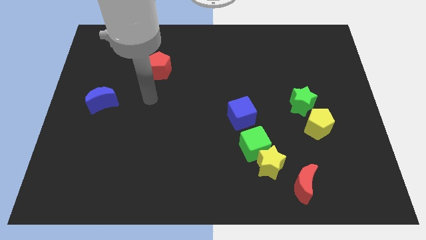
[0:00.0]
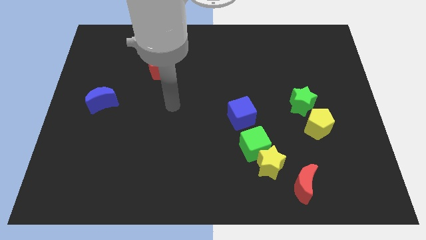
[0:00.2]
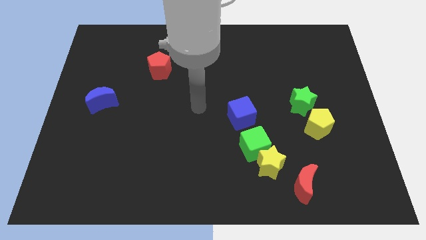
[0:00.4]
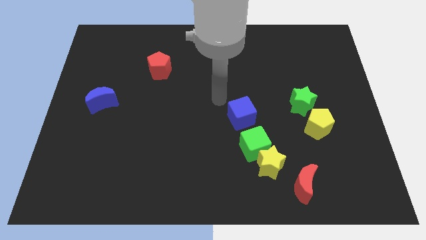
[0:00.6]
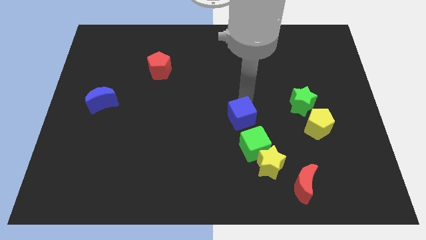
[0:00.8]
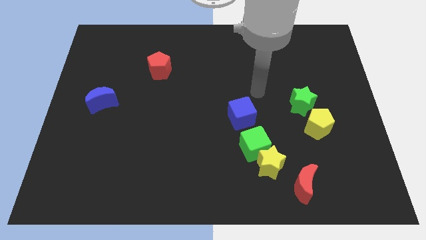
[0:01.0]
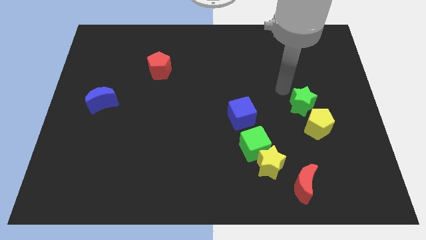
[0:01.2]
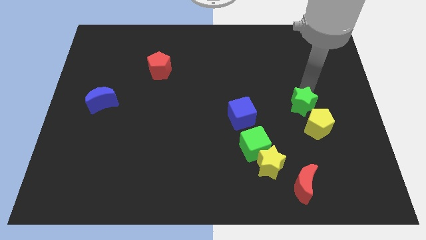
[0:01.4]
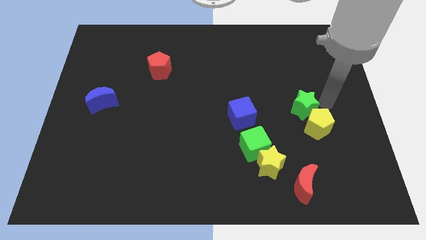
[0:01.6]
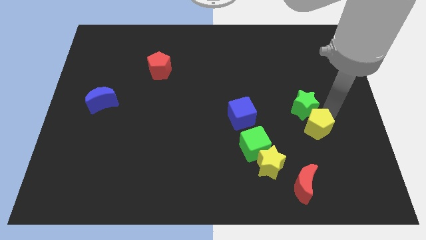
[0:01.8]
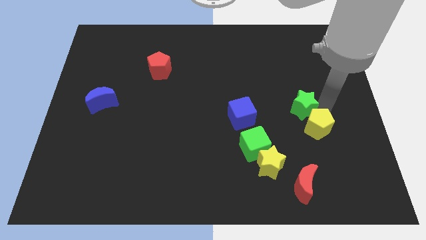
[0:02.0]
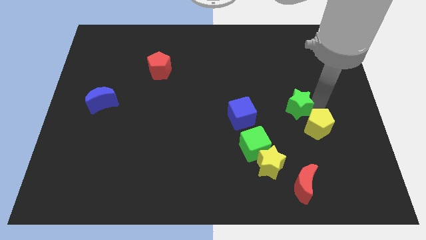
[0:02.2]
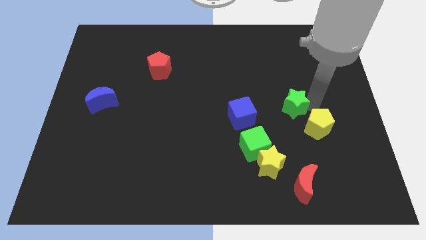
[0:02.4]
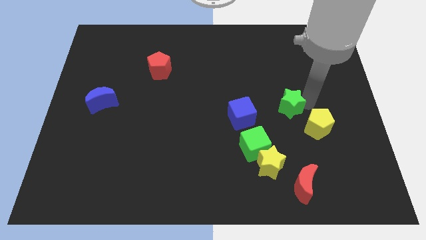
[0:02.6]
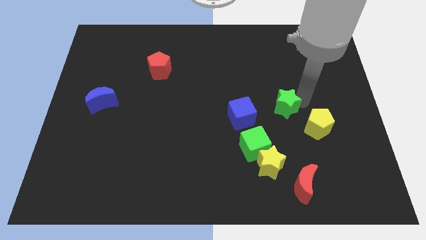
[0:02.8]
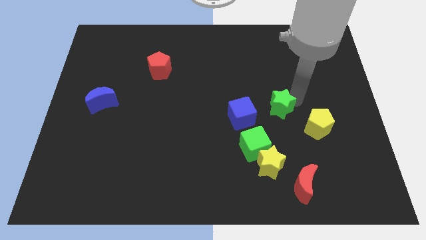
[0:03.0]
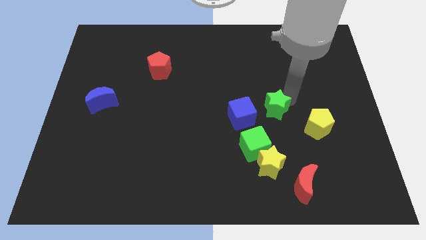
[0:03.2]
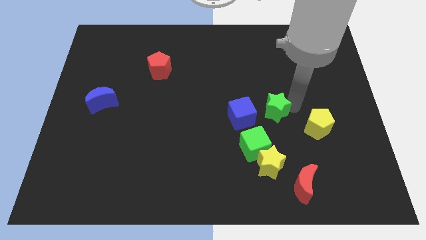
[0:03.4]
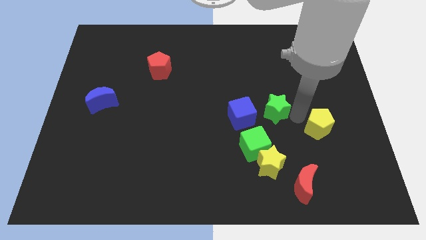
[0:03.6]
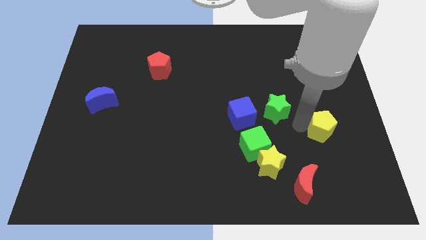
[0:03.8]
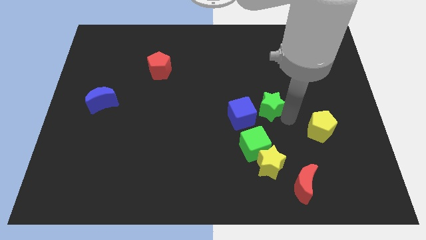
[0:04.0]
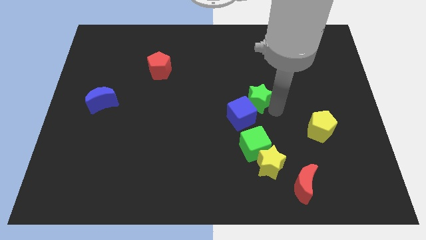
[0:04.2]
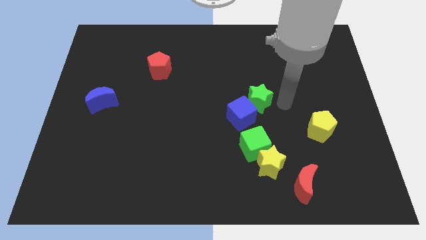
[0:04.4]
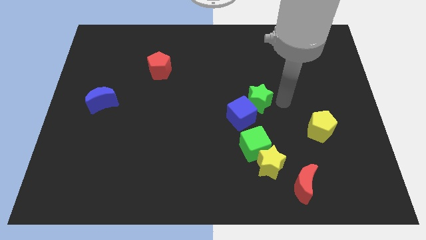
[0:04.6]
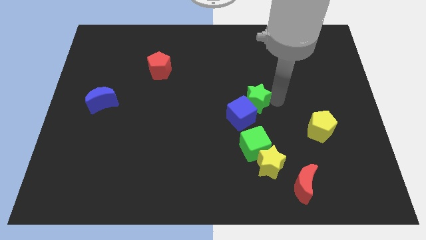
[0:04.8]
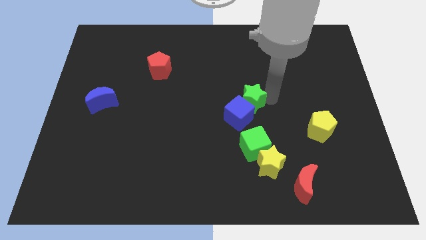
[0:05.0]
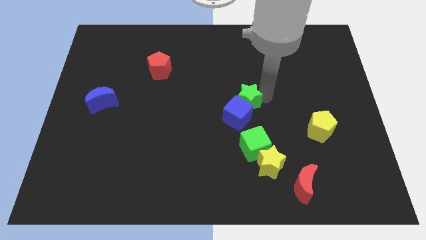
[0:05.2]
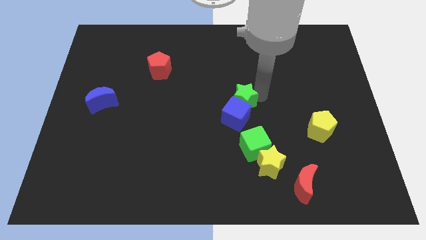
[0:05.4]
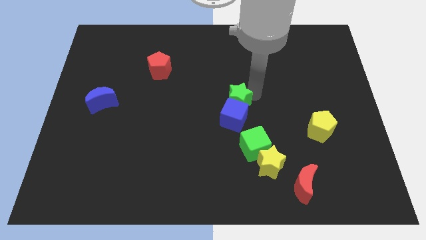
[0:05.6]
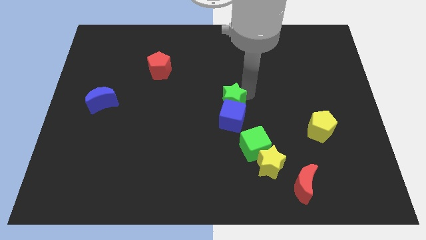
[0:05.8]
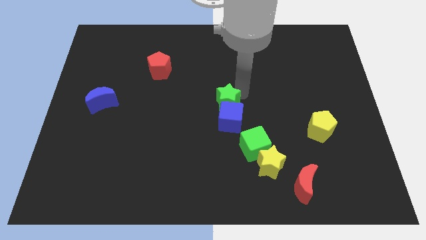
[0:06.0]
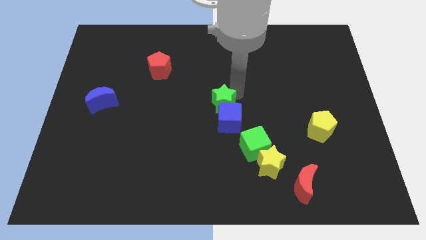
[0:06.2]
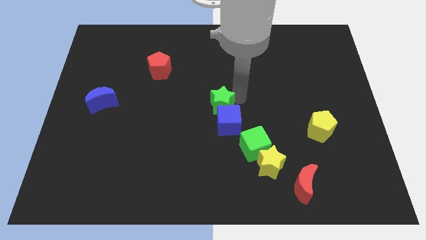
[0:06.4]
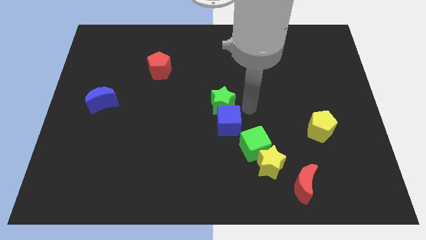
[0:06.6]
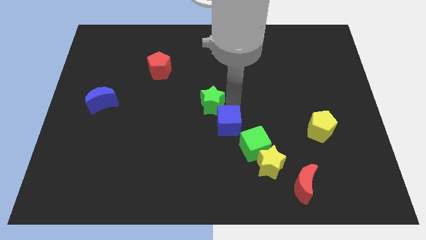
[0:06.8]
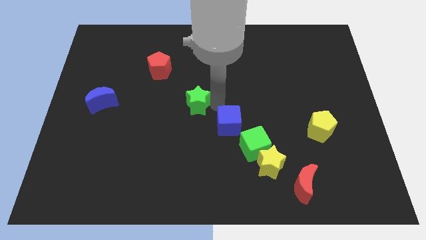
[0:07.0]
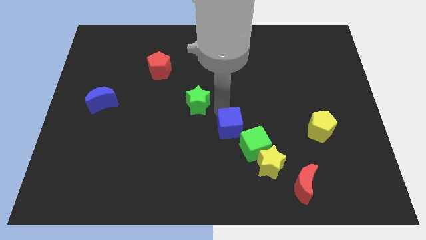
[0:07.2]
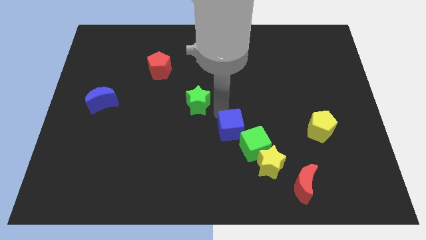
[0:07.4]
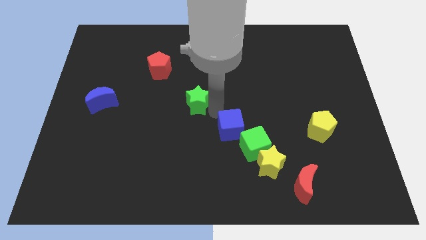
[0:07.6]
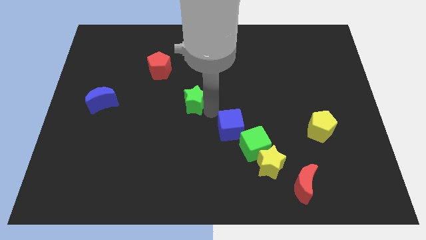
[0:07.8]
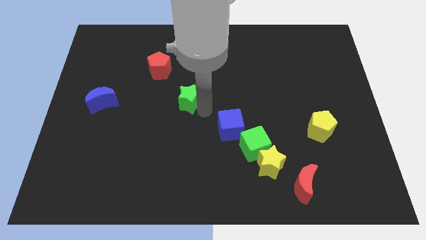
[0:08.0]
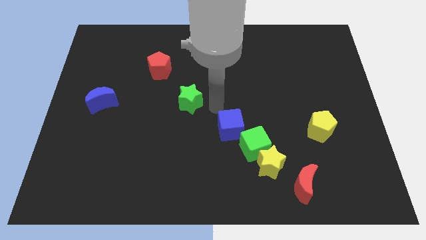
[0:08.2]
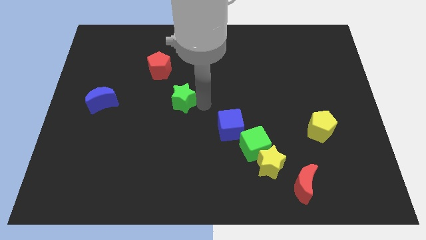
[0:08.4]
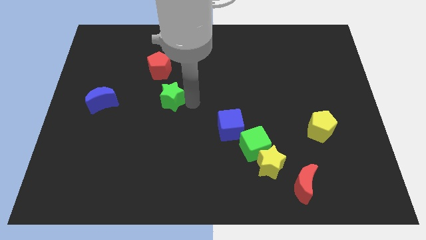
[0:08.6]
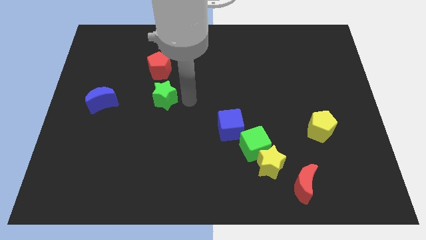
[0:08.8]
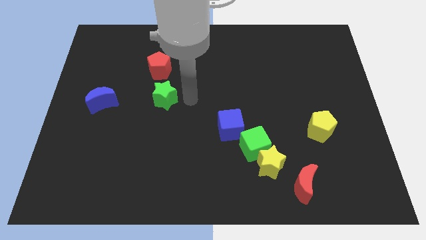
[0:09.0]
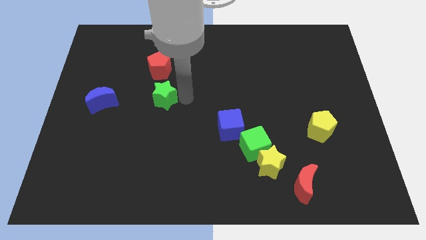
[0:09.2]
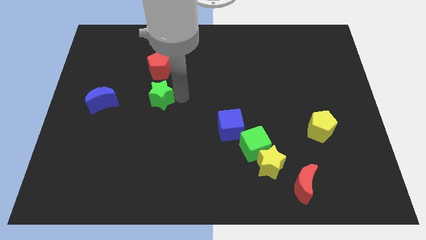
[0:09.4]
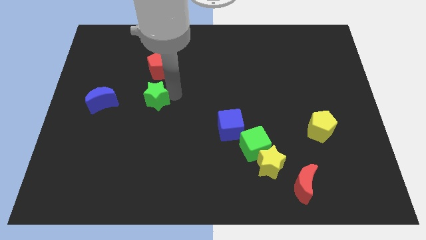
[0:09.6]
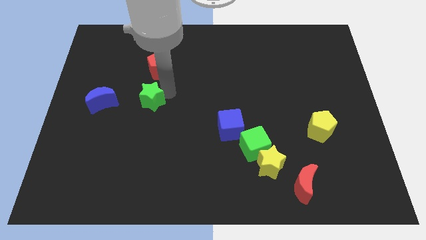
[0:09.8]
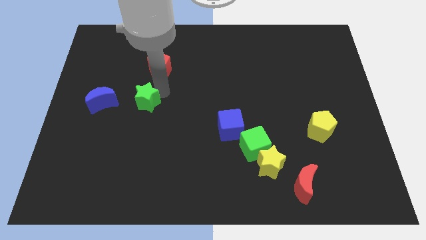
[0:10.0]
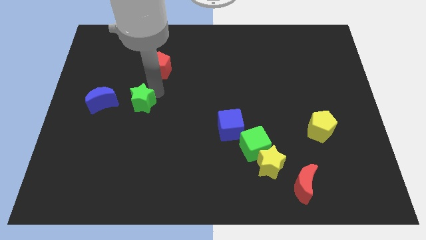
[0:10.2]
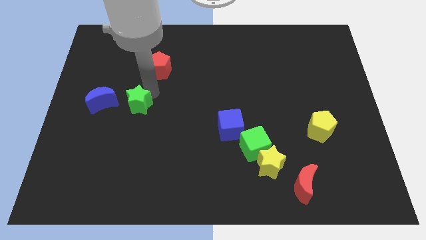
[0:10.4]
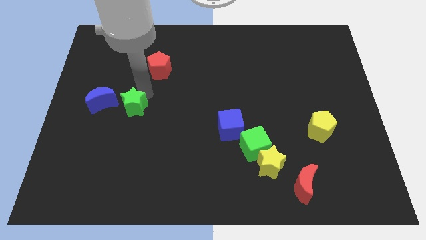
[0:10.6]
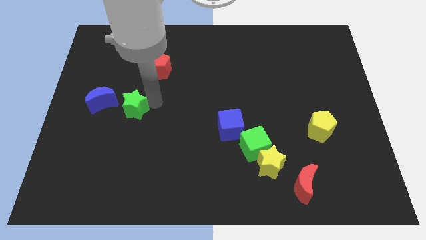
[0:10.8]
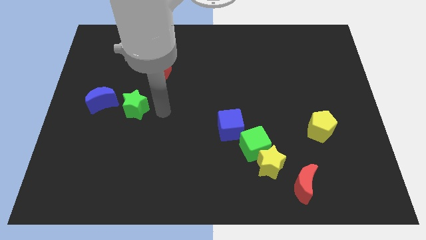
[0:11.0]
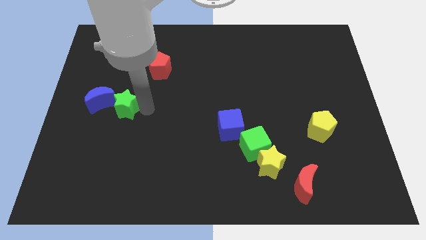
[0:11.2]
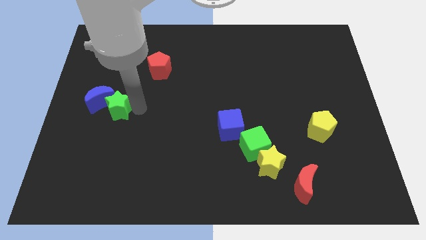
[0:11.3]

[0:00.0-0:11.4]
push the green star to the blue moon

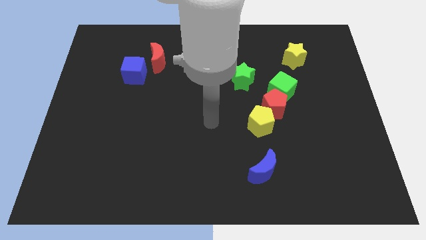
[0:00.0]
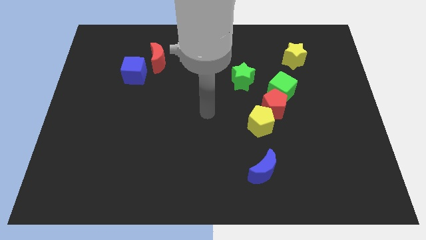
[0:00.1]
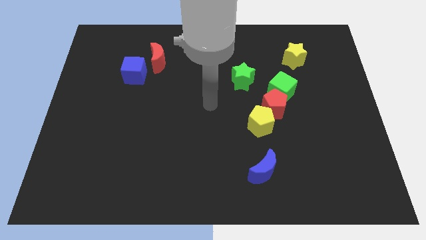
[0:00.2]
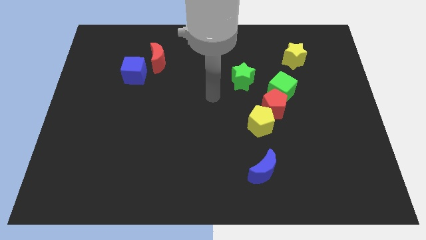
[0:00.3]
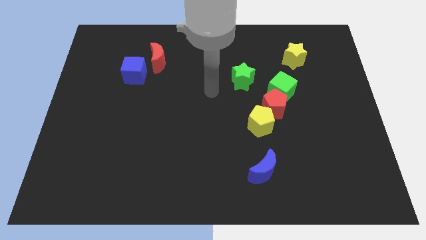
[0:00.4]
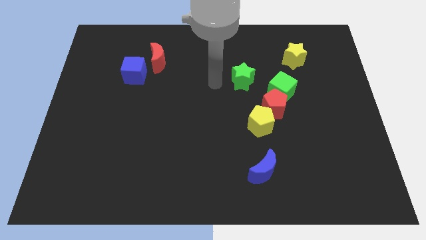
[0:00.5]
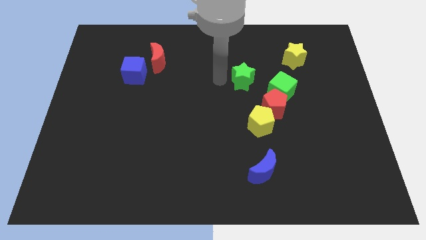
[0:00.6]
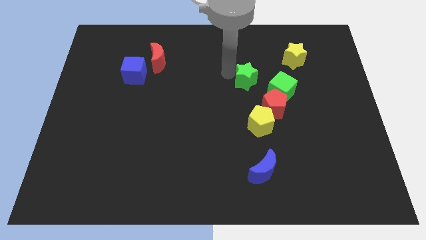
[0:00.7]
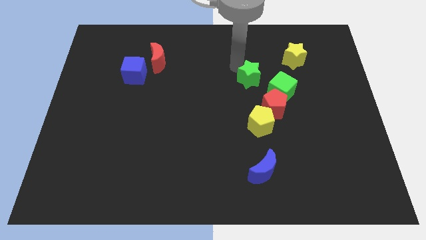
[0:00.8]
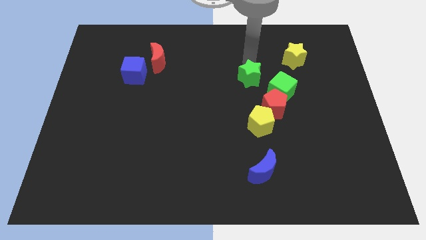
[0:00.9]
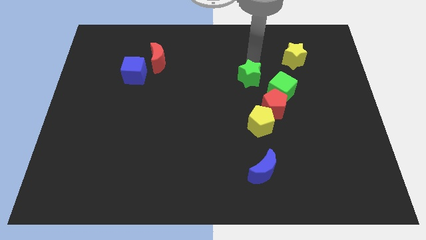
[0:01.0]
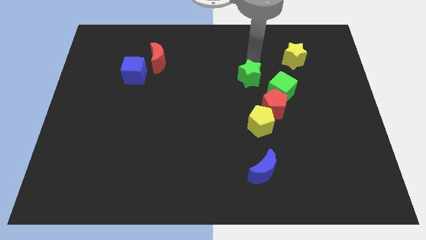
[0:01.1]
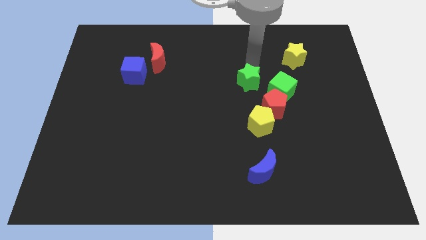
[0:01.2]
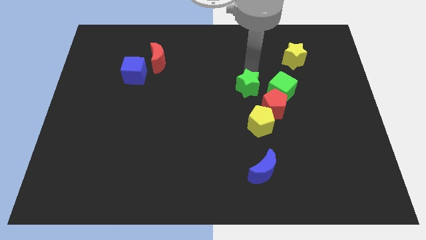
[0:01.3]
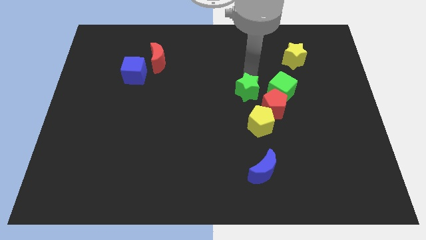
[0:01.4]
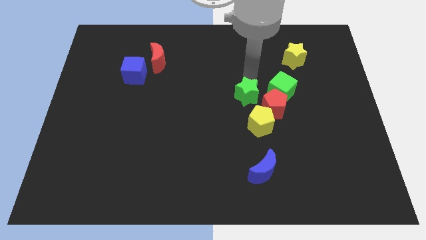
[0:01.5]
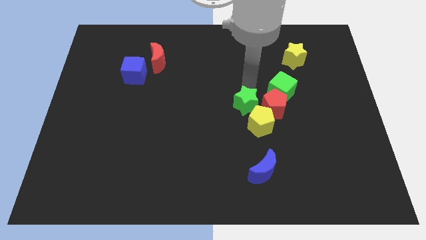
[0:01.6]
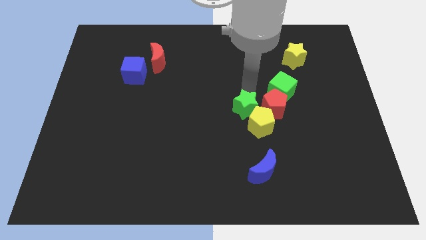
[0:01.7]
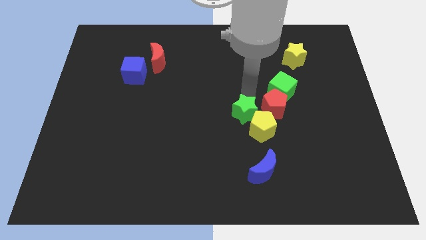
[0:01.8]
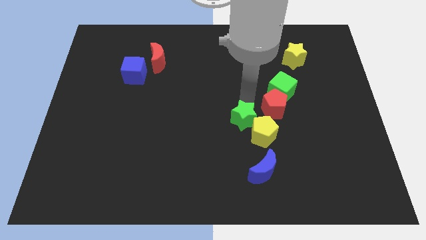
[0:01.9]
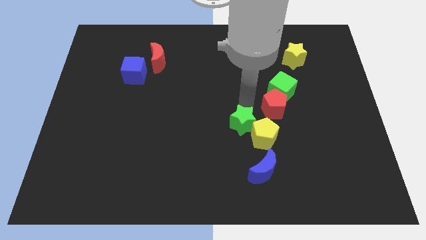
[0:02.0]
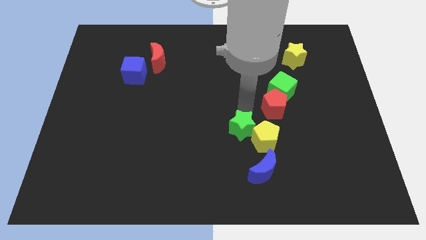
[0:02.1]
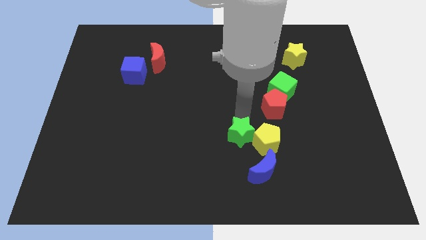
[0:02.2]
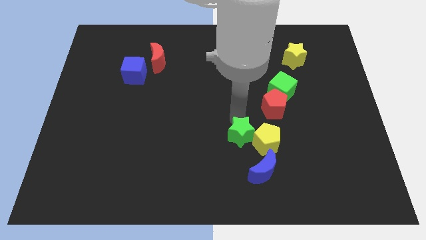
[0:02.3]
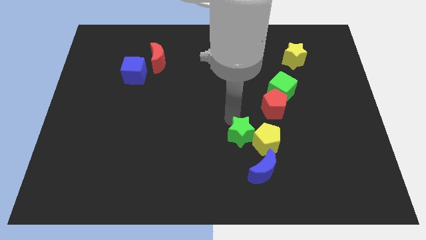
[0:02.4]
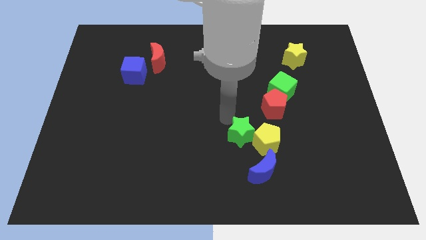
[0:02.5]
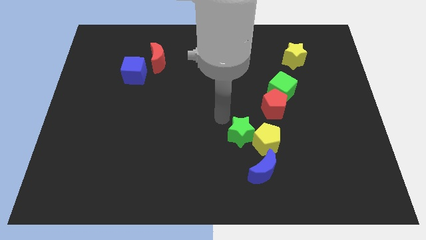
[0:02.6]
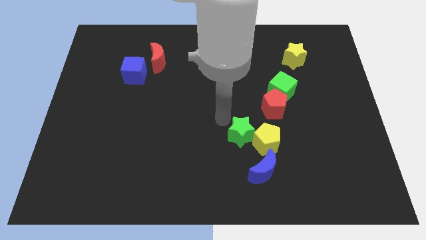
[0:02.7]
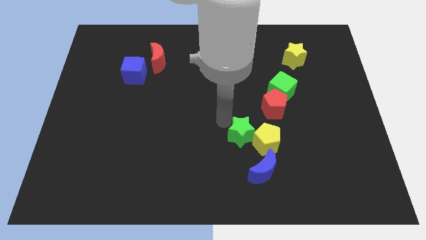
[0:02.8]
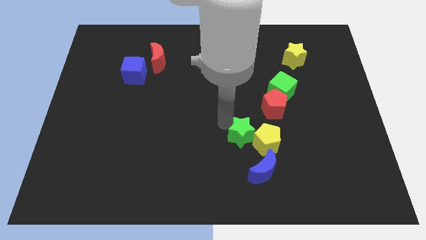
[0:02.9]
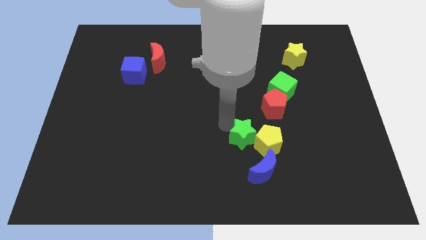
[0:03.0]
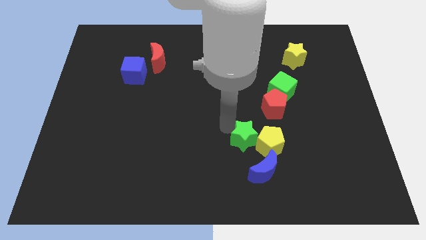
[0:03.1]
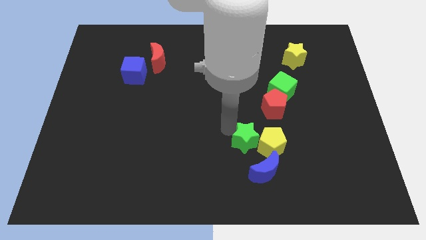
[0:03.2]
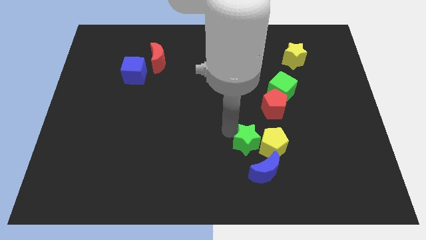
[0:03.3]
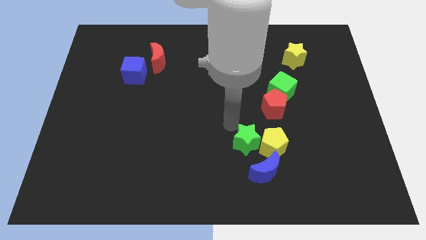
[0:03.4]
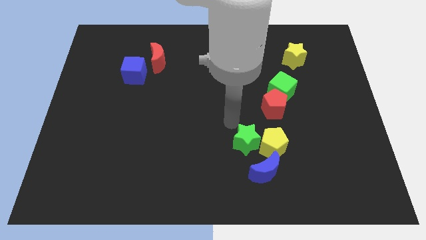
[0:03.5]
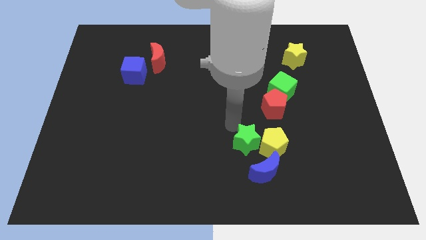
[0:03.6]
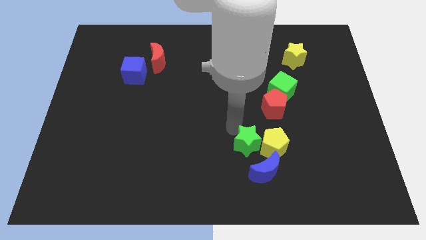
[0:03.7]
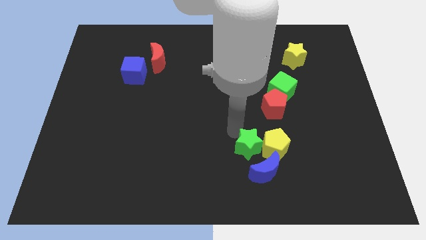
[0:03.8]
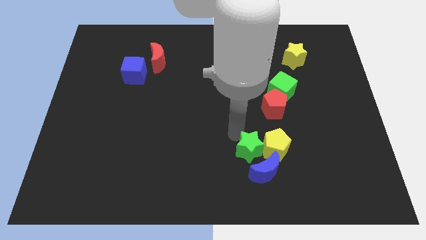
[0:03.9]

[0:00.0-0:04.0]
move the green star close to the blue moon
